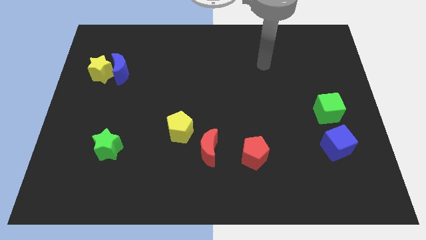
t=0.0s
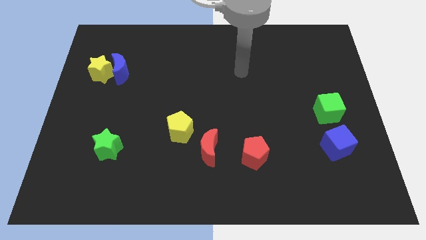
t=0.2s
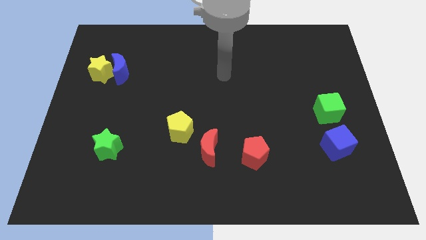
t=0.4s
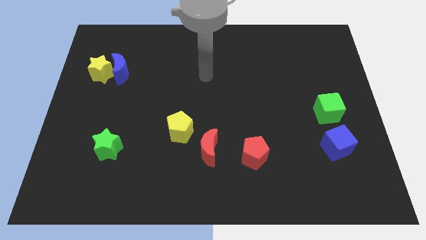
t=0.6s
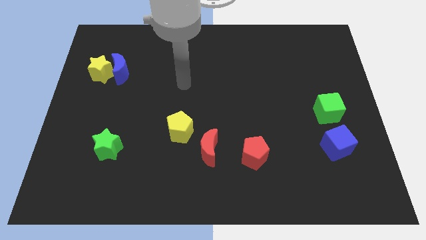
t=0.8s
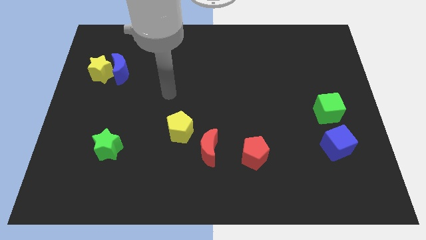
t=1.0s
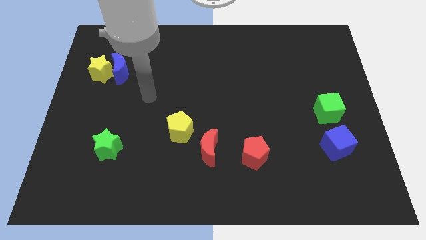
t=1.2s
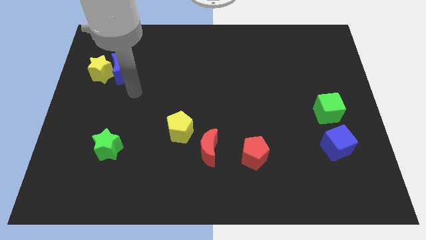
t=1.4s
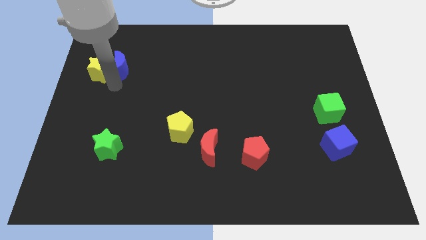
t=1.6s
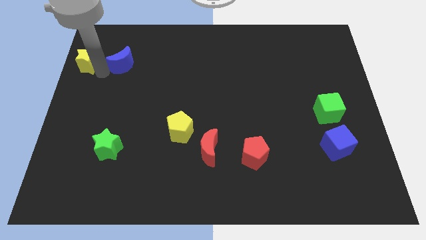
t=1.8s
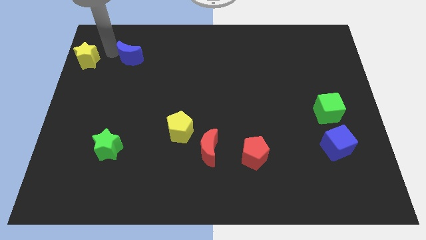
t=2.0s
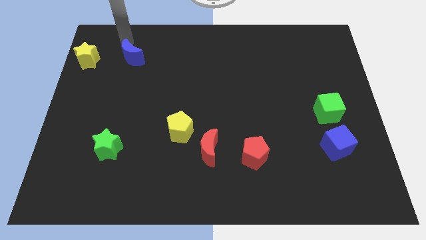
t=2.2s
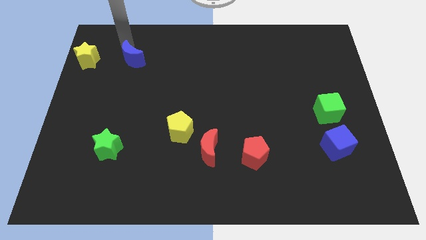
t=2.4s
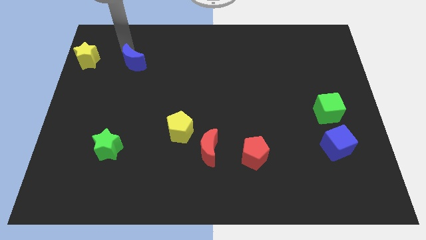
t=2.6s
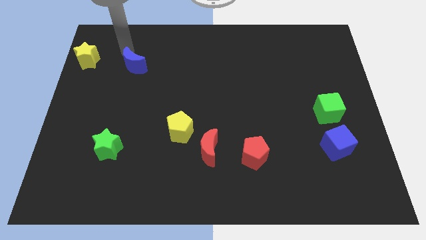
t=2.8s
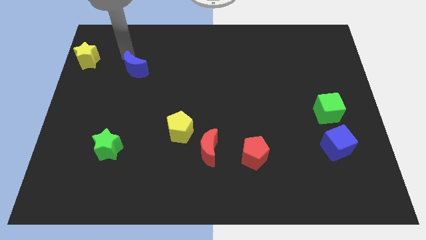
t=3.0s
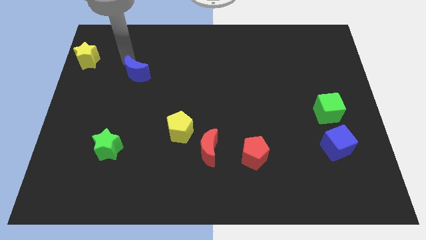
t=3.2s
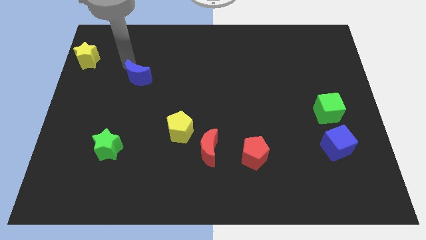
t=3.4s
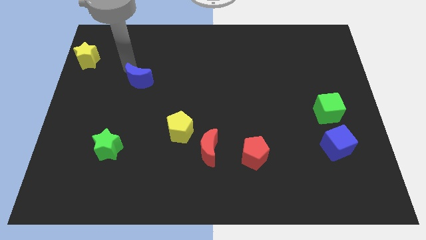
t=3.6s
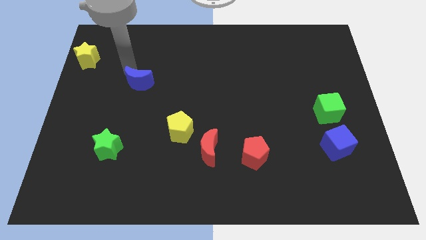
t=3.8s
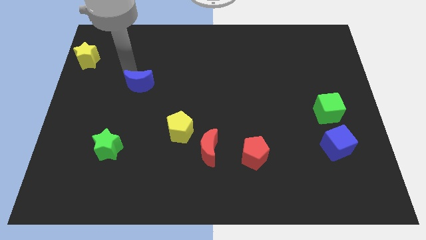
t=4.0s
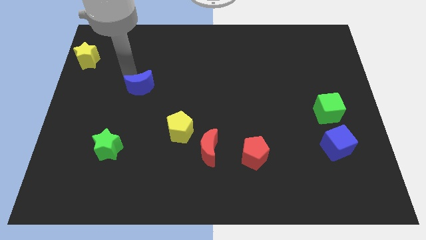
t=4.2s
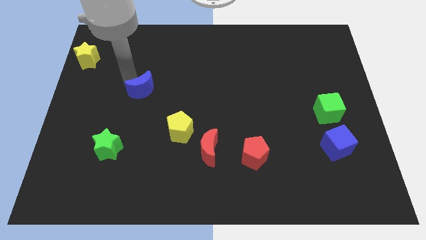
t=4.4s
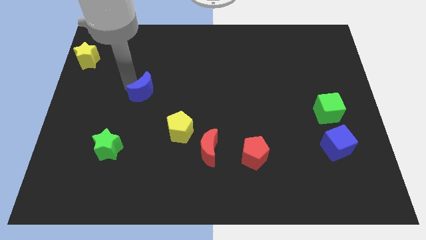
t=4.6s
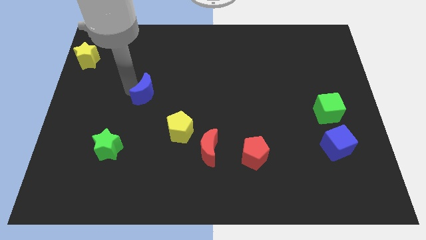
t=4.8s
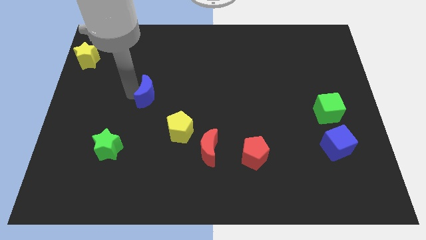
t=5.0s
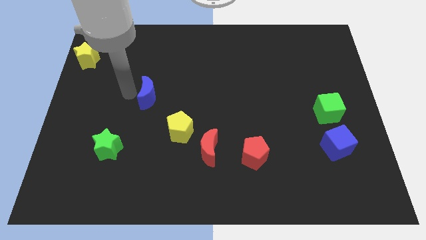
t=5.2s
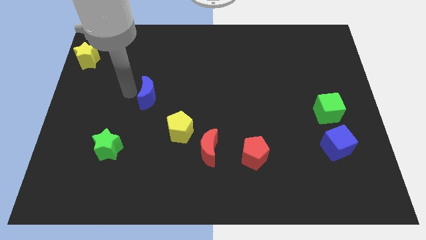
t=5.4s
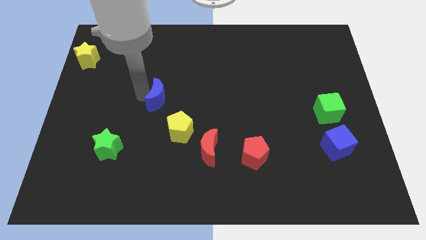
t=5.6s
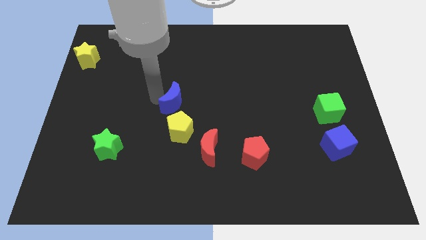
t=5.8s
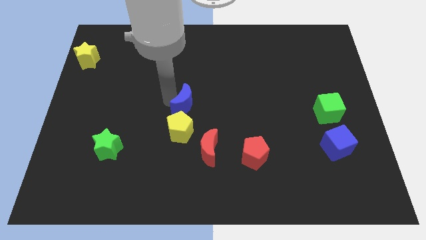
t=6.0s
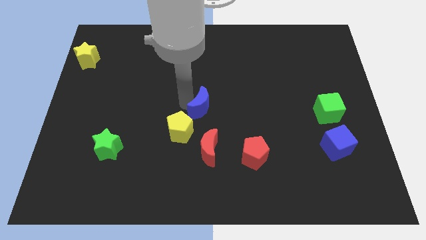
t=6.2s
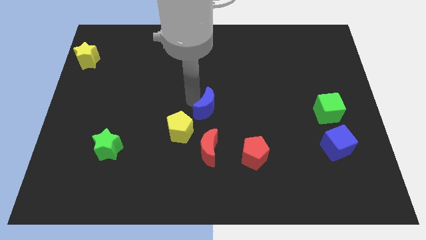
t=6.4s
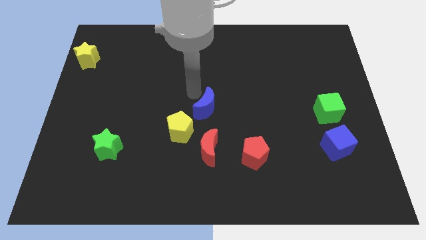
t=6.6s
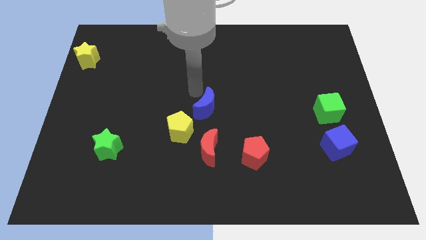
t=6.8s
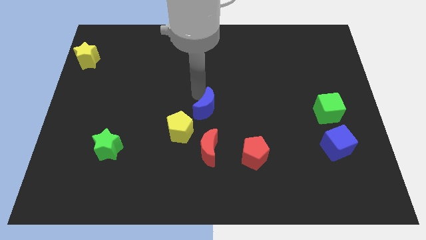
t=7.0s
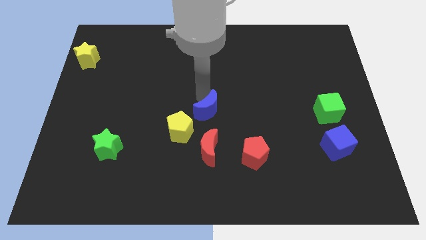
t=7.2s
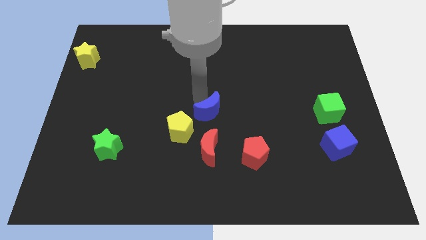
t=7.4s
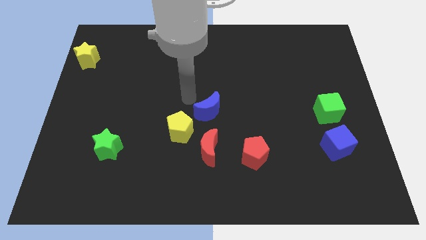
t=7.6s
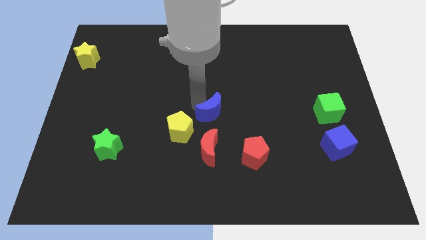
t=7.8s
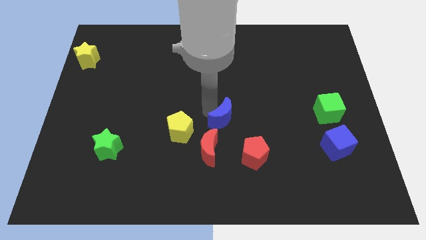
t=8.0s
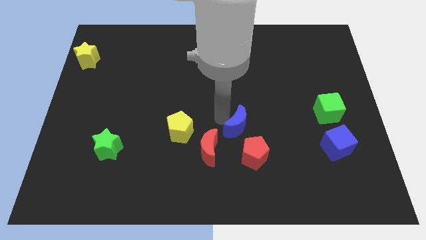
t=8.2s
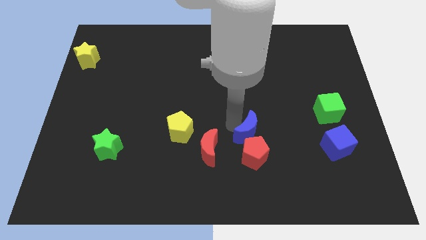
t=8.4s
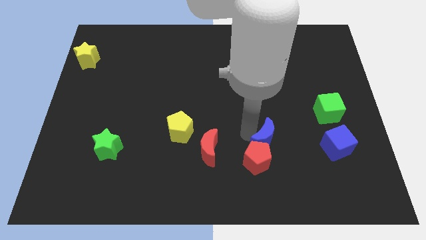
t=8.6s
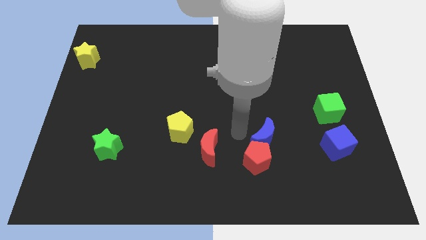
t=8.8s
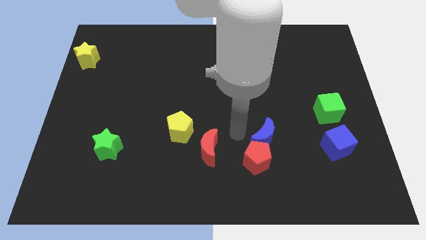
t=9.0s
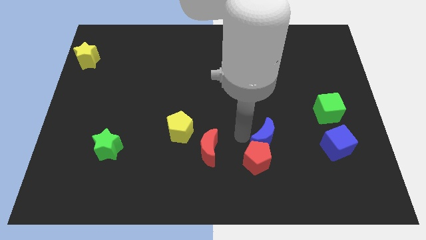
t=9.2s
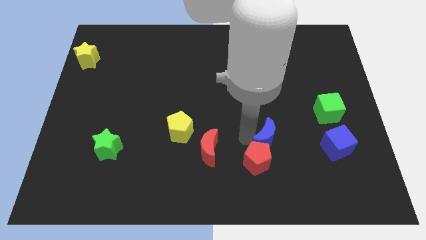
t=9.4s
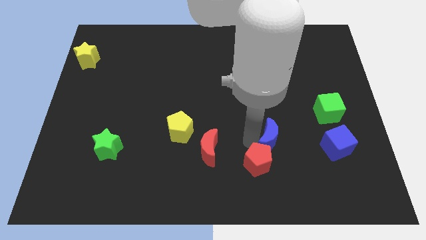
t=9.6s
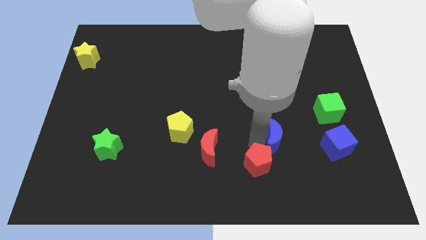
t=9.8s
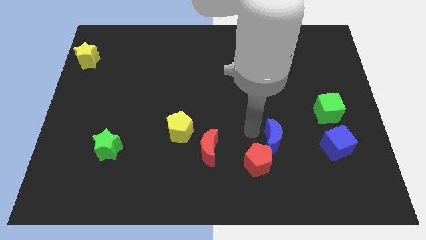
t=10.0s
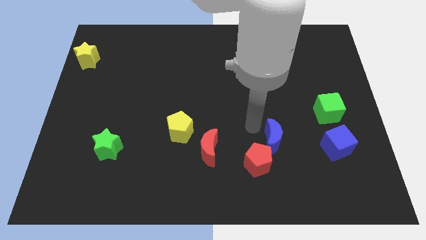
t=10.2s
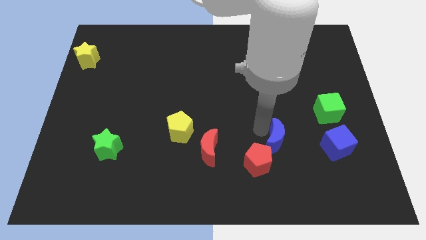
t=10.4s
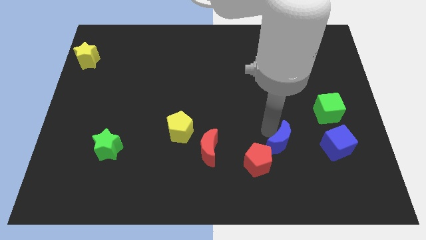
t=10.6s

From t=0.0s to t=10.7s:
push the blue moon right of the red pentagon

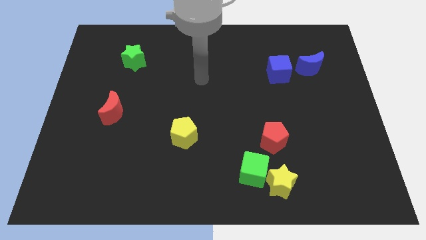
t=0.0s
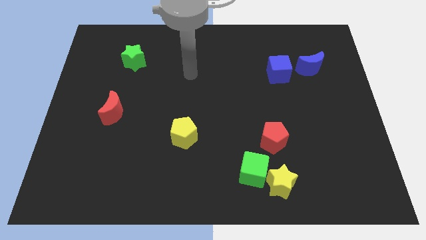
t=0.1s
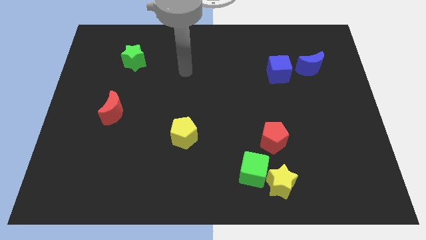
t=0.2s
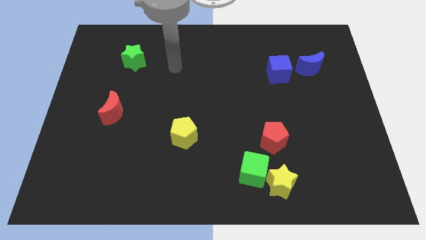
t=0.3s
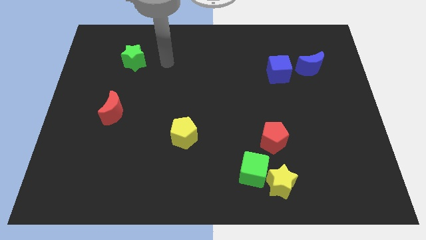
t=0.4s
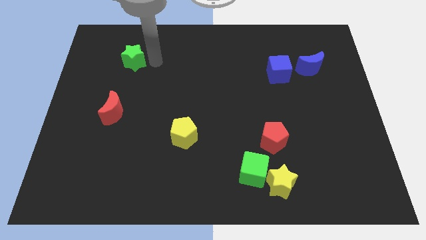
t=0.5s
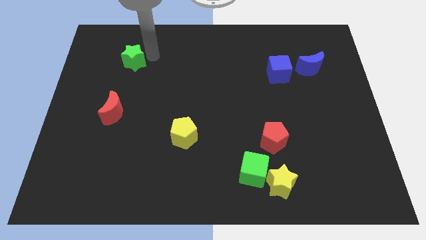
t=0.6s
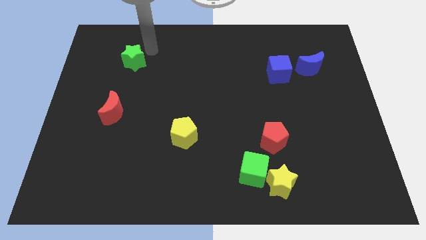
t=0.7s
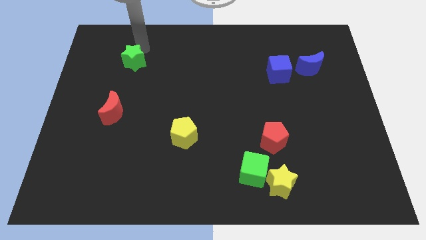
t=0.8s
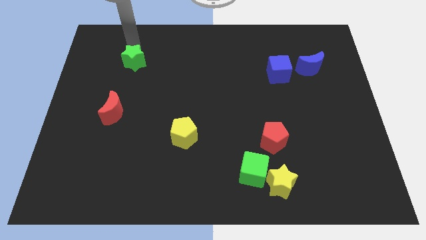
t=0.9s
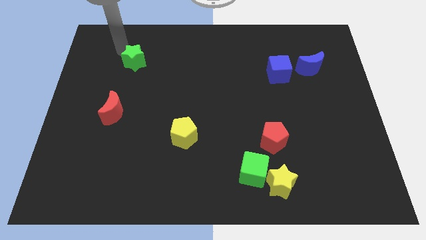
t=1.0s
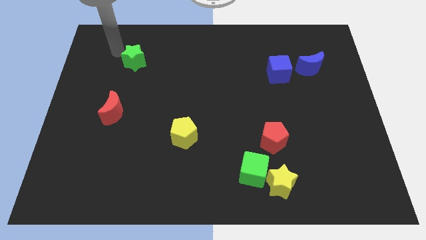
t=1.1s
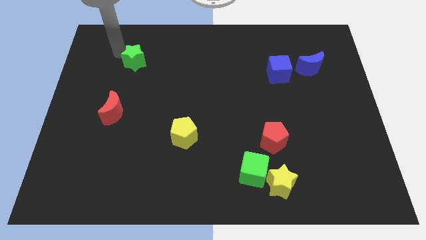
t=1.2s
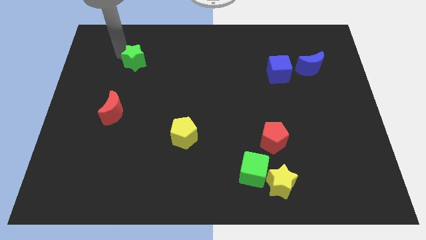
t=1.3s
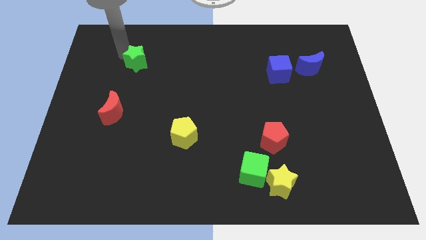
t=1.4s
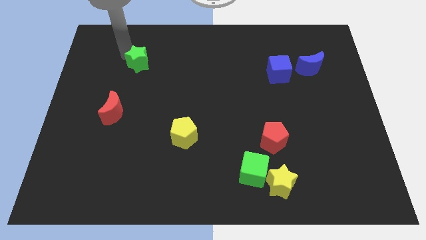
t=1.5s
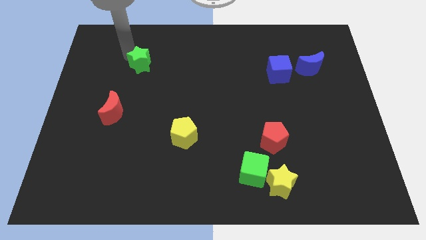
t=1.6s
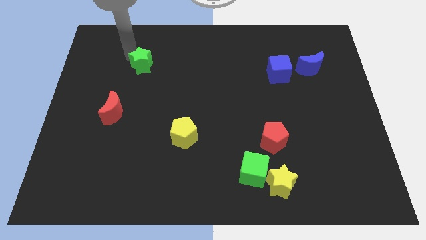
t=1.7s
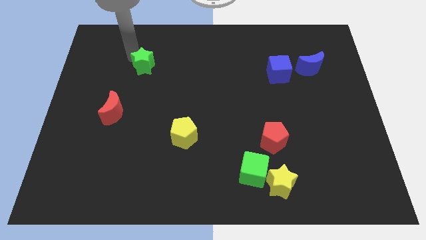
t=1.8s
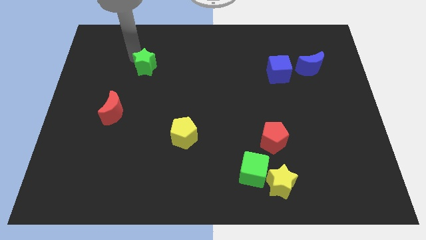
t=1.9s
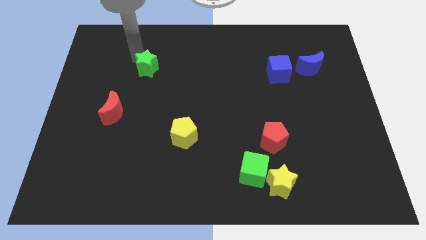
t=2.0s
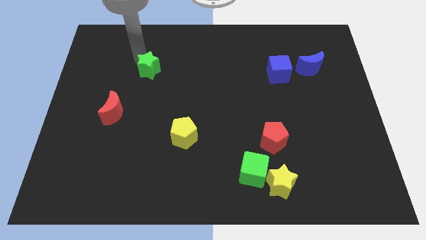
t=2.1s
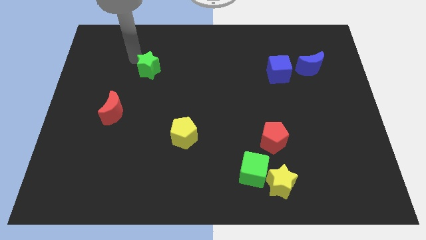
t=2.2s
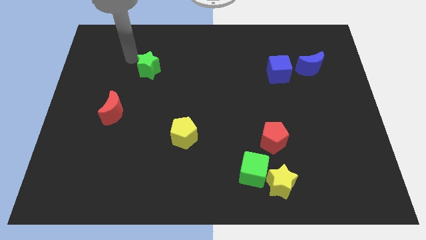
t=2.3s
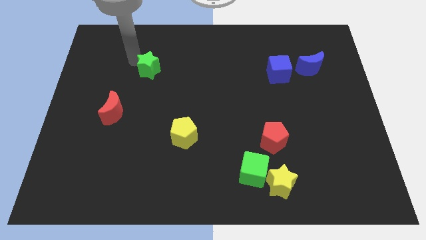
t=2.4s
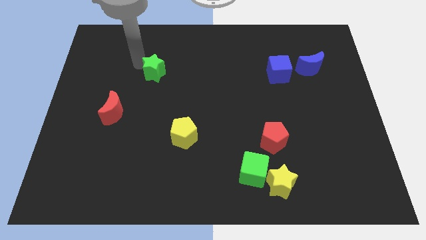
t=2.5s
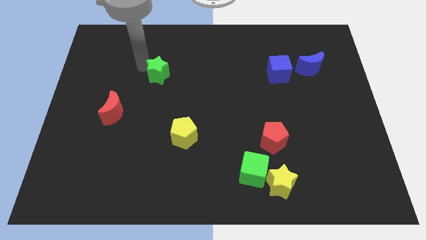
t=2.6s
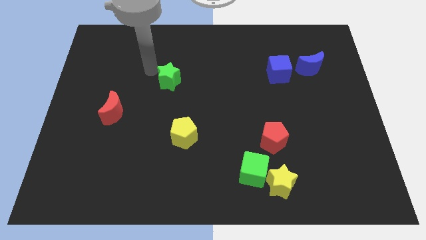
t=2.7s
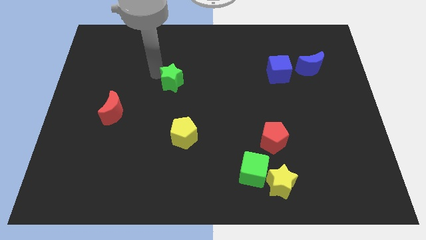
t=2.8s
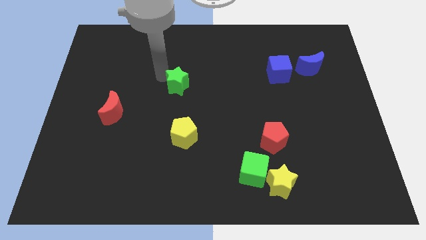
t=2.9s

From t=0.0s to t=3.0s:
push the green star above the yellow pentagon
